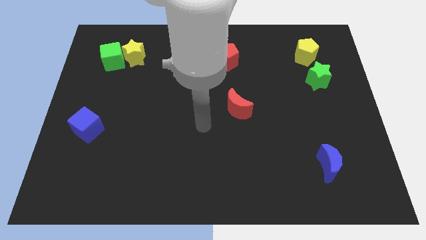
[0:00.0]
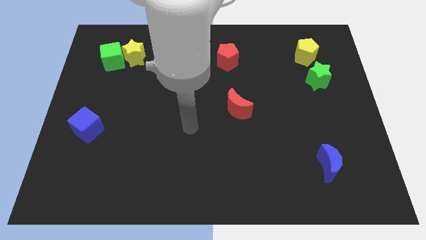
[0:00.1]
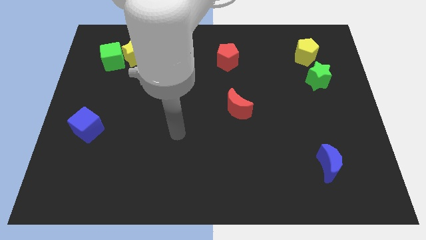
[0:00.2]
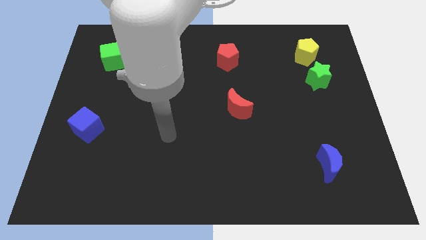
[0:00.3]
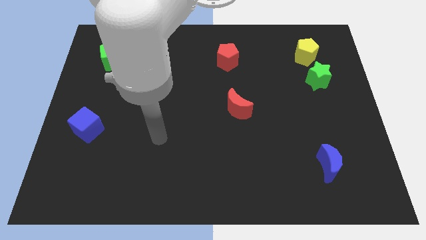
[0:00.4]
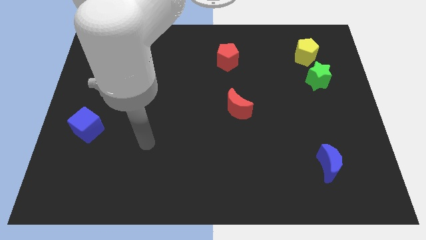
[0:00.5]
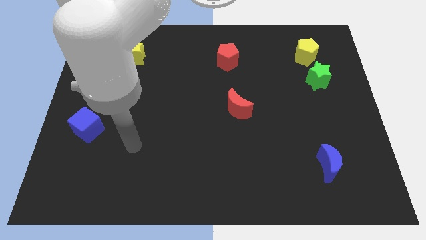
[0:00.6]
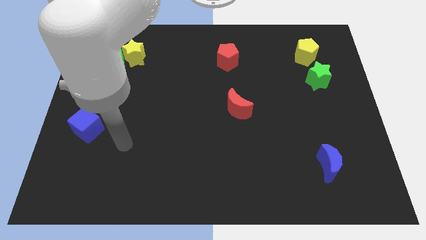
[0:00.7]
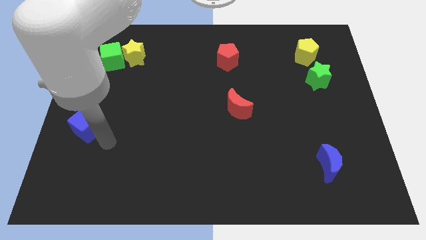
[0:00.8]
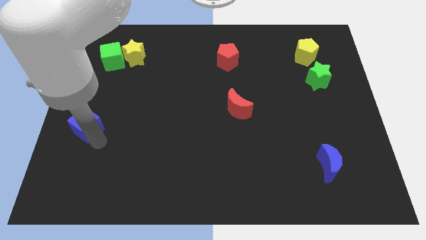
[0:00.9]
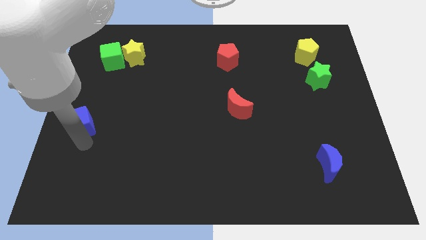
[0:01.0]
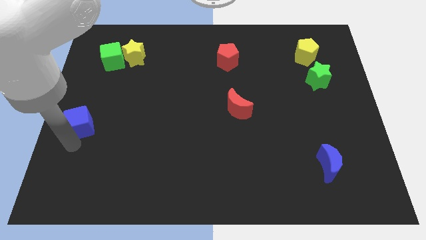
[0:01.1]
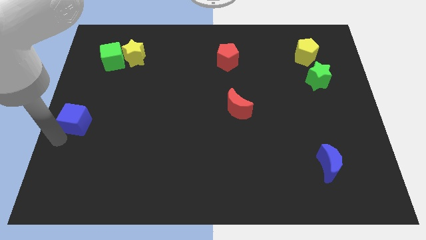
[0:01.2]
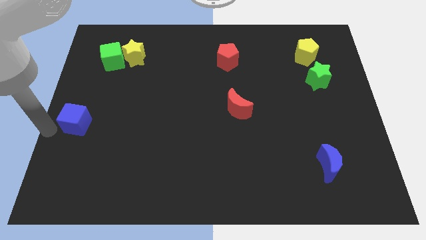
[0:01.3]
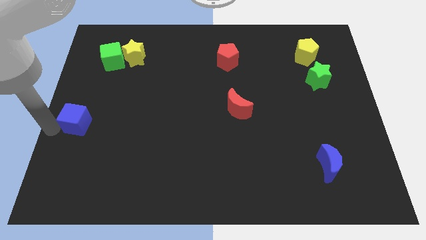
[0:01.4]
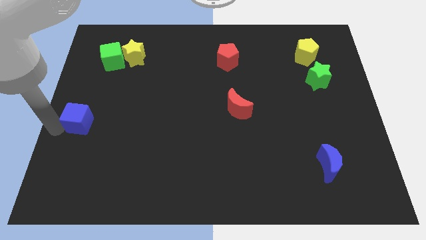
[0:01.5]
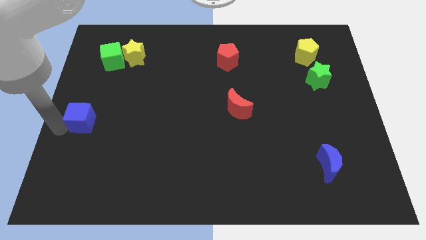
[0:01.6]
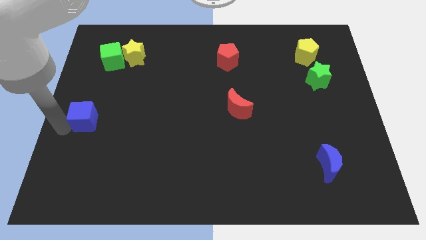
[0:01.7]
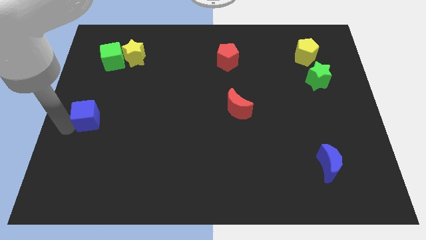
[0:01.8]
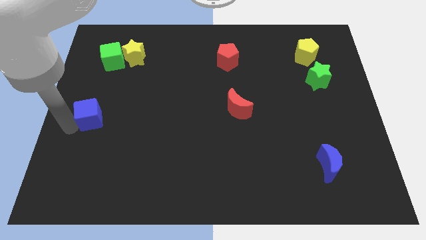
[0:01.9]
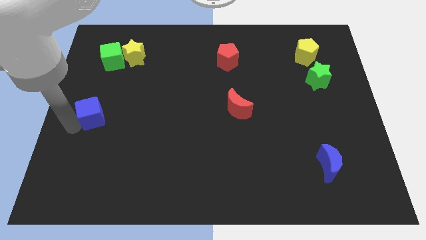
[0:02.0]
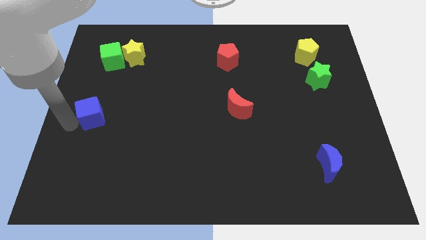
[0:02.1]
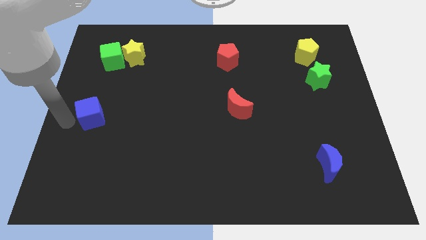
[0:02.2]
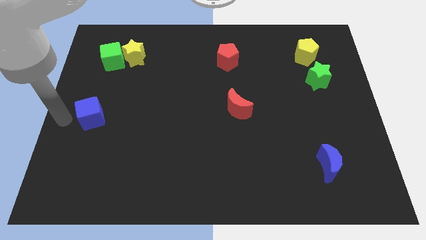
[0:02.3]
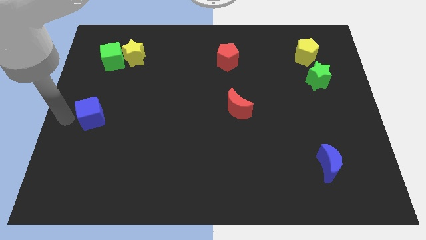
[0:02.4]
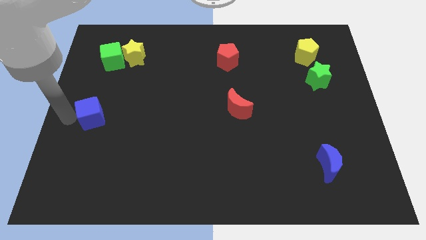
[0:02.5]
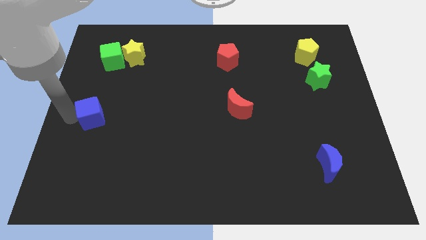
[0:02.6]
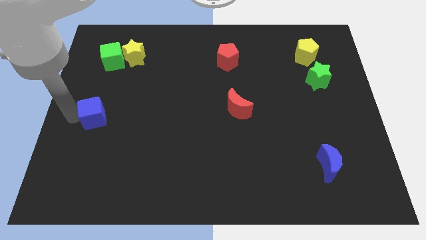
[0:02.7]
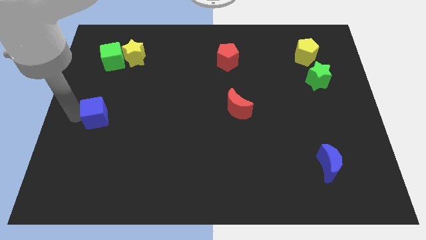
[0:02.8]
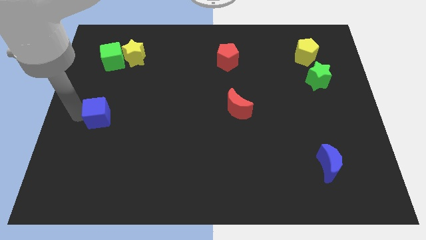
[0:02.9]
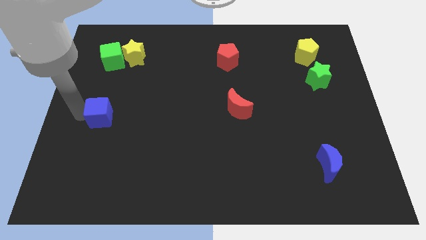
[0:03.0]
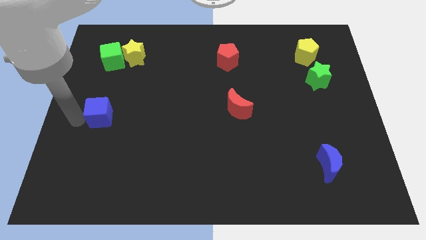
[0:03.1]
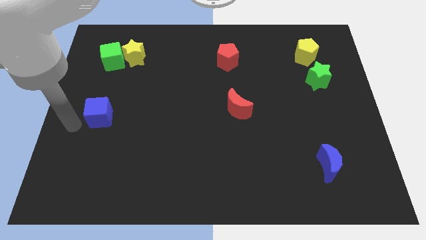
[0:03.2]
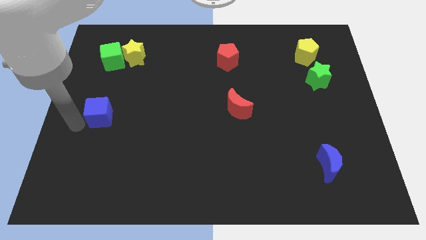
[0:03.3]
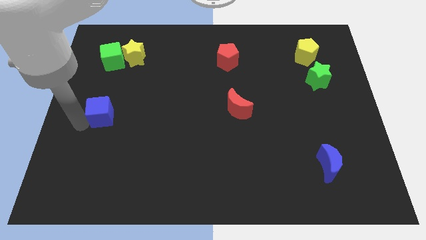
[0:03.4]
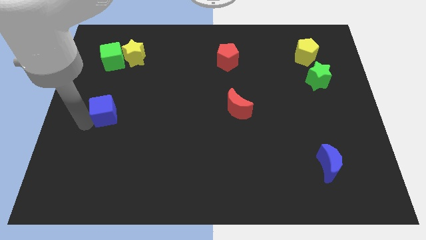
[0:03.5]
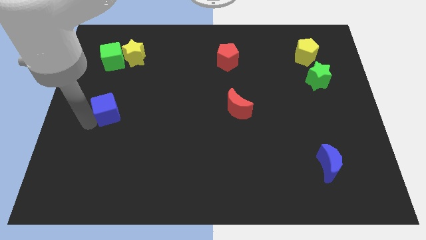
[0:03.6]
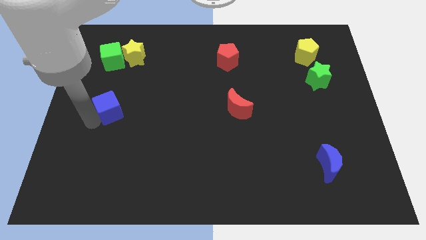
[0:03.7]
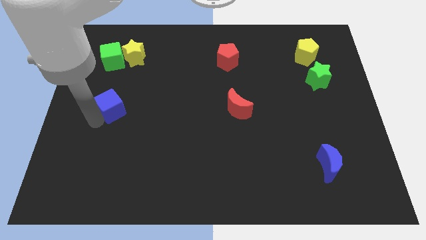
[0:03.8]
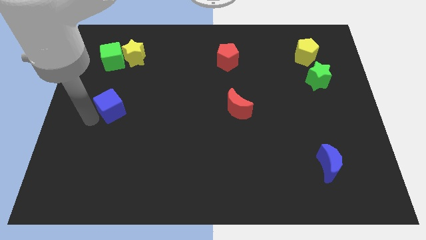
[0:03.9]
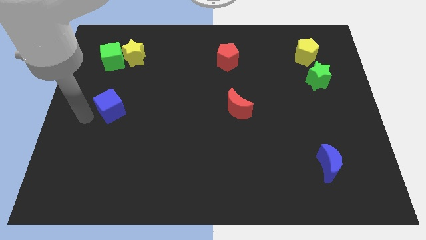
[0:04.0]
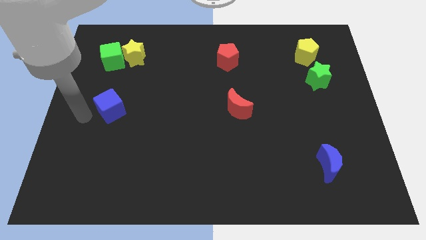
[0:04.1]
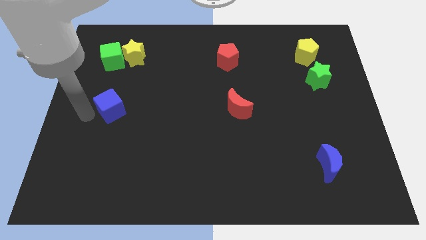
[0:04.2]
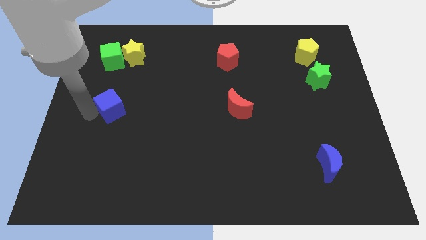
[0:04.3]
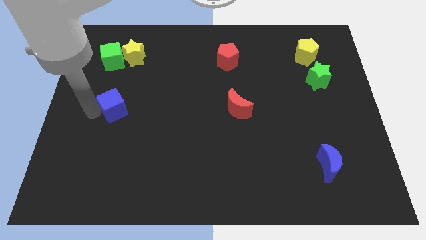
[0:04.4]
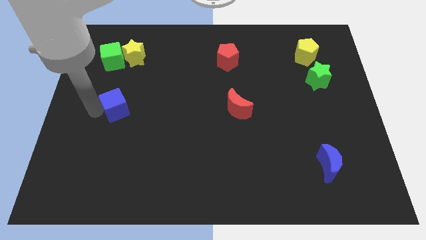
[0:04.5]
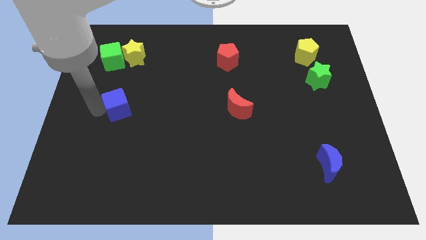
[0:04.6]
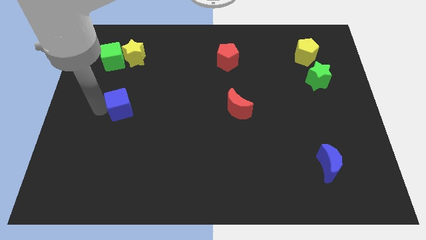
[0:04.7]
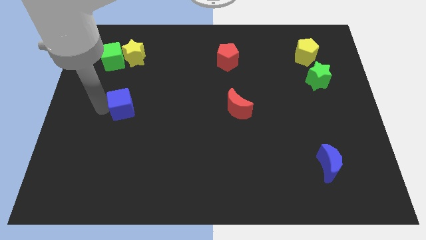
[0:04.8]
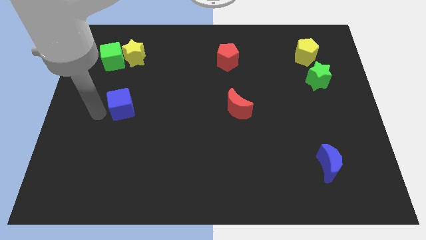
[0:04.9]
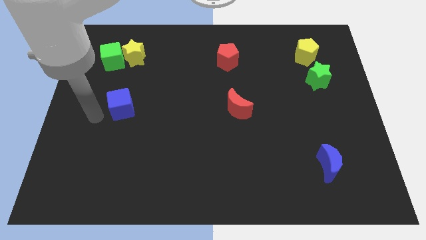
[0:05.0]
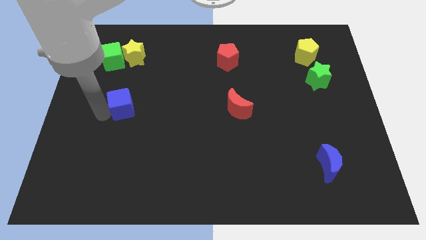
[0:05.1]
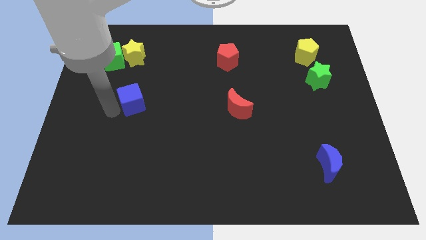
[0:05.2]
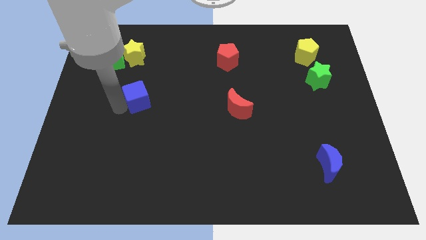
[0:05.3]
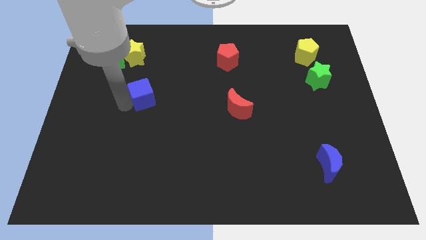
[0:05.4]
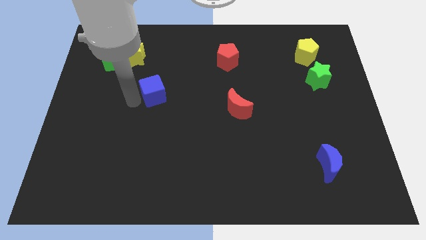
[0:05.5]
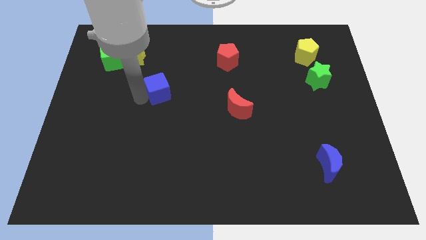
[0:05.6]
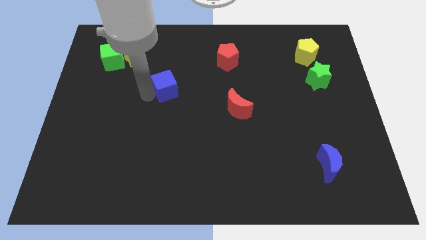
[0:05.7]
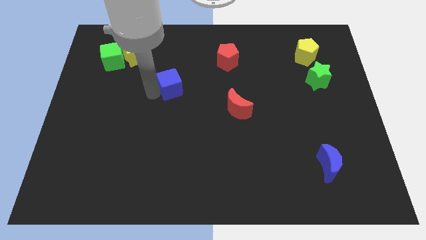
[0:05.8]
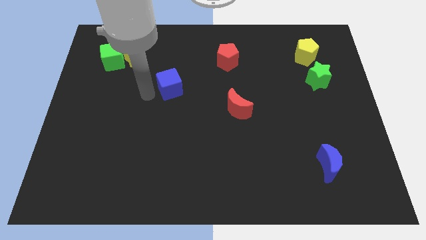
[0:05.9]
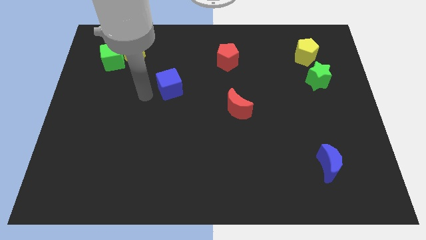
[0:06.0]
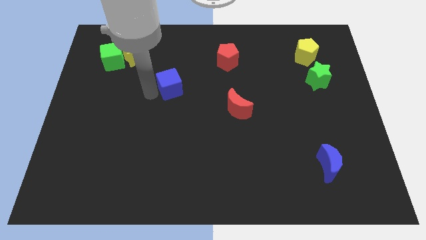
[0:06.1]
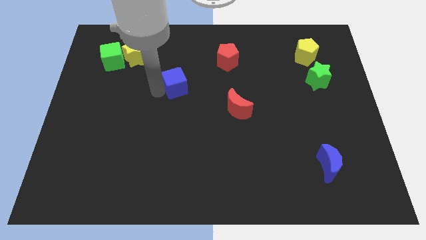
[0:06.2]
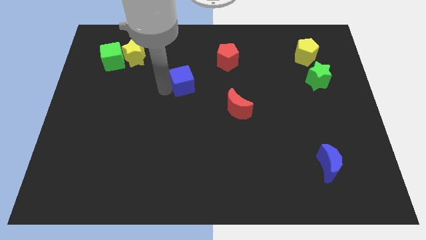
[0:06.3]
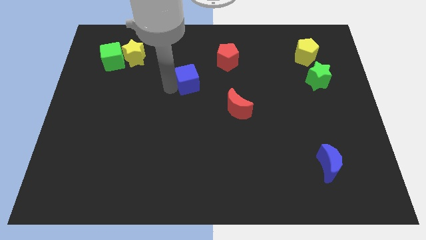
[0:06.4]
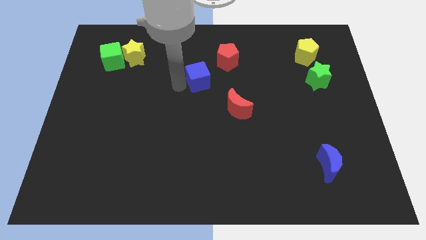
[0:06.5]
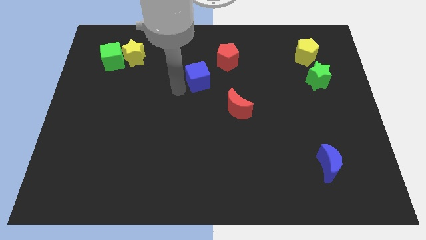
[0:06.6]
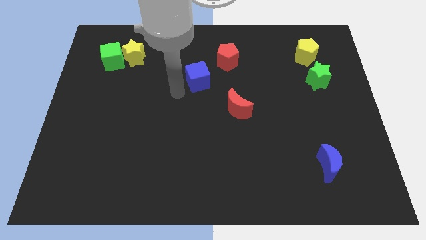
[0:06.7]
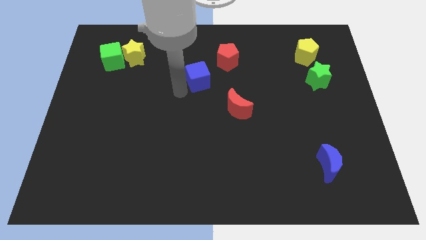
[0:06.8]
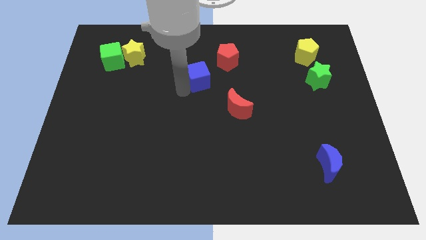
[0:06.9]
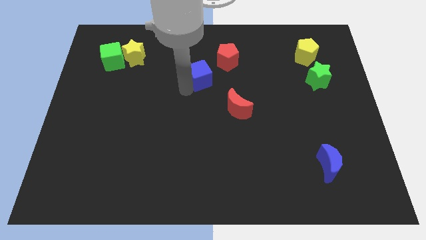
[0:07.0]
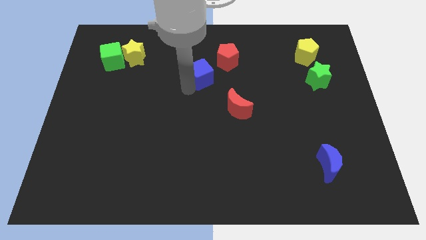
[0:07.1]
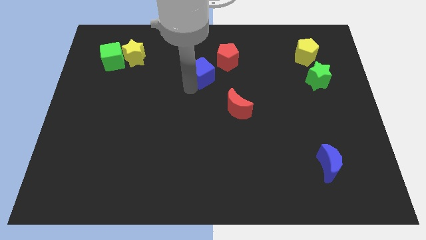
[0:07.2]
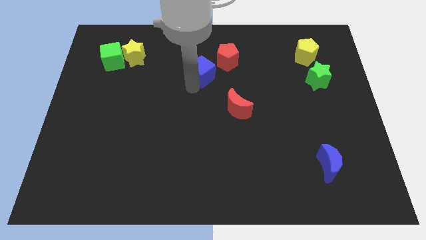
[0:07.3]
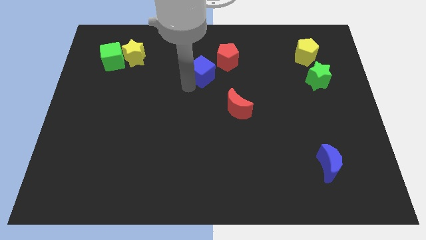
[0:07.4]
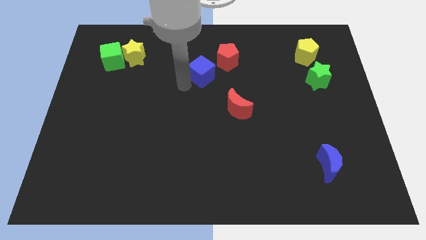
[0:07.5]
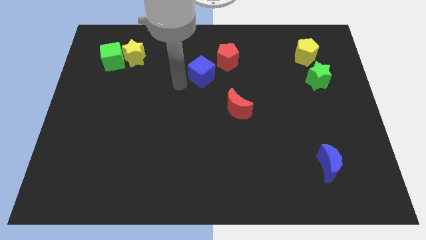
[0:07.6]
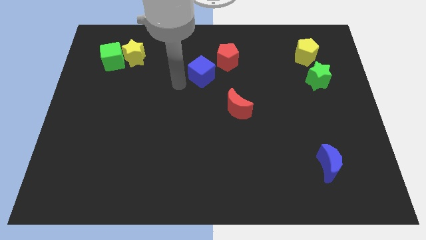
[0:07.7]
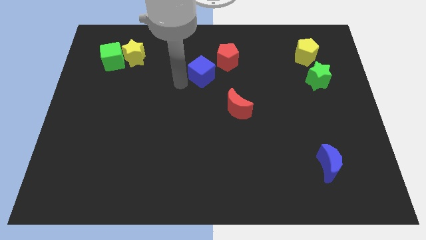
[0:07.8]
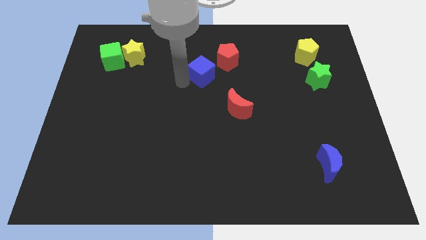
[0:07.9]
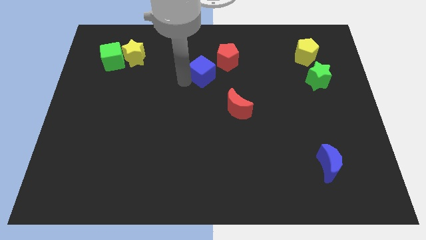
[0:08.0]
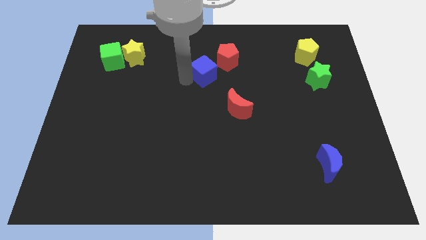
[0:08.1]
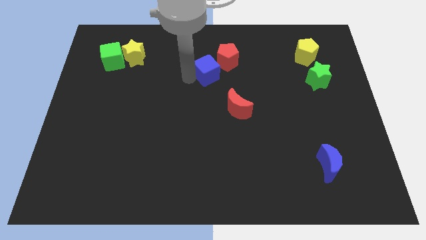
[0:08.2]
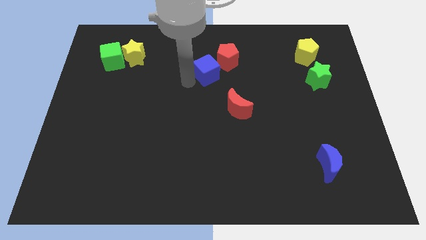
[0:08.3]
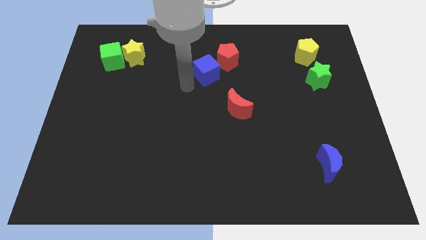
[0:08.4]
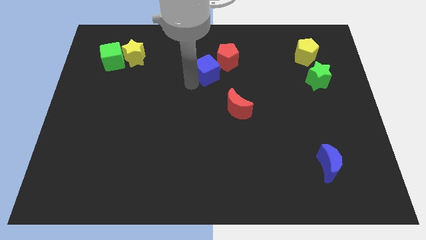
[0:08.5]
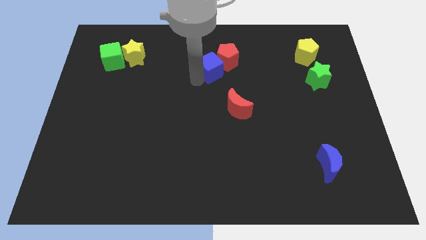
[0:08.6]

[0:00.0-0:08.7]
put the blue cube to the red pentagon
